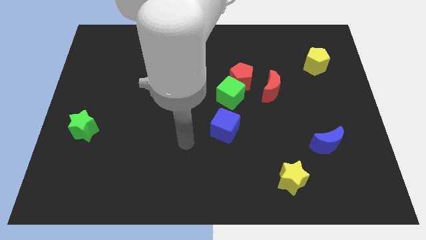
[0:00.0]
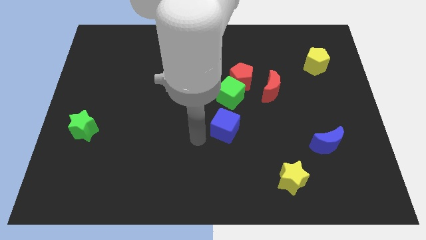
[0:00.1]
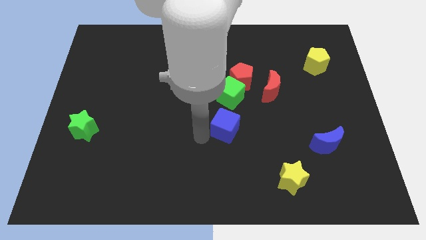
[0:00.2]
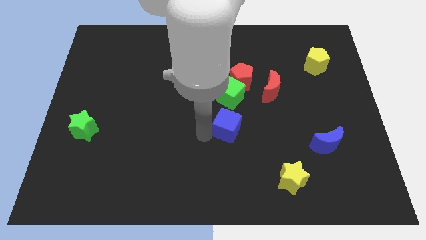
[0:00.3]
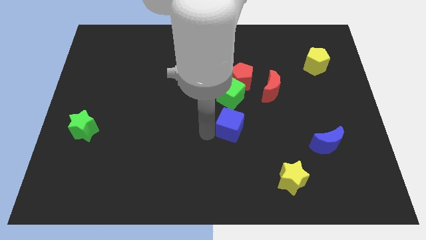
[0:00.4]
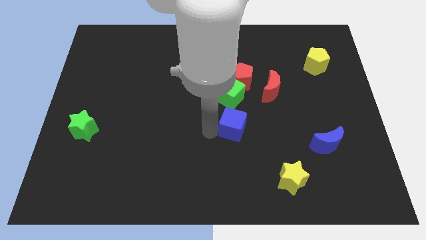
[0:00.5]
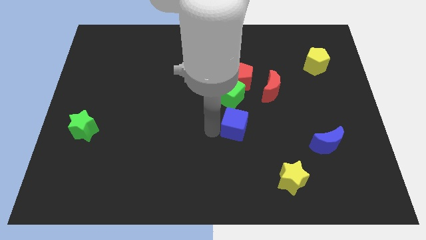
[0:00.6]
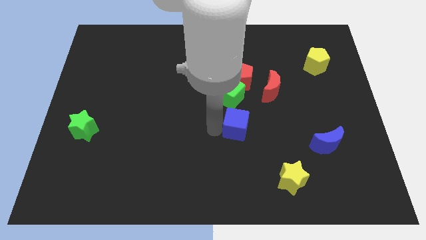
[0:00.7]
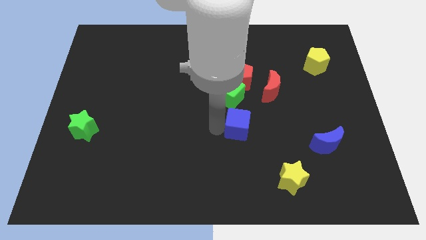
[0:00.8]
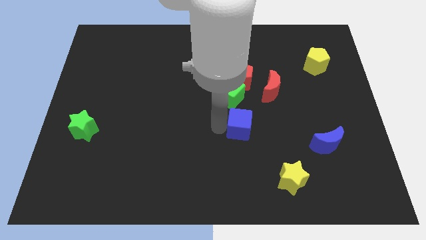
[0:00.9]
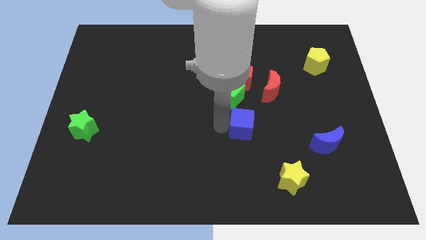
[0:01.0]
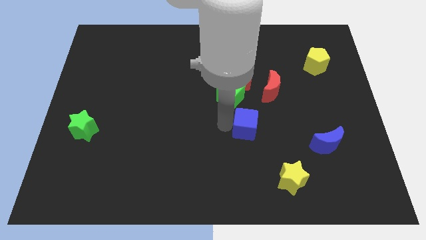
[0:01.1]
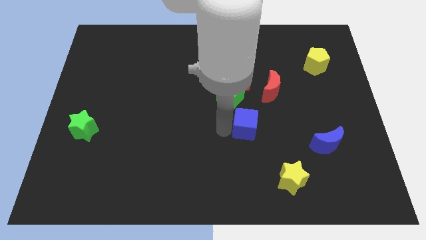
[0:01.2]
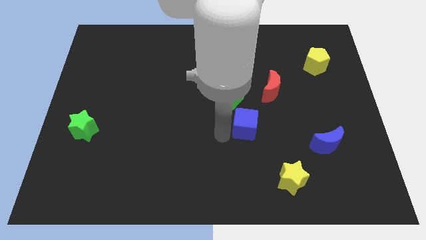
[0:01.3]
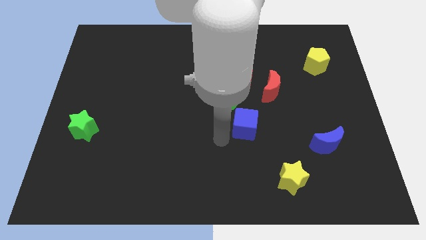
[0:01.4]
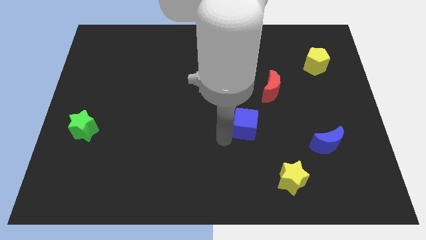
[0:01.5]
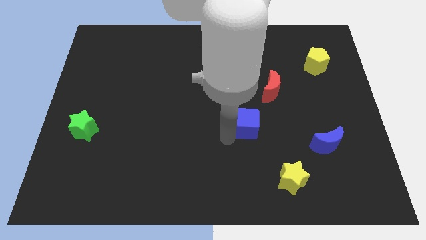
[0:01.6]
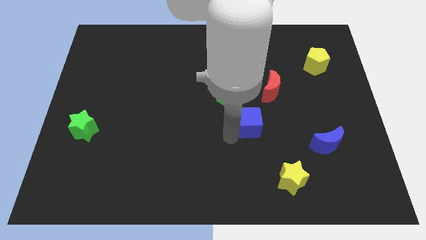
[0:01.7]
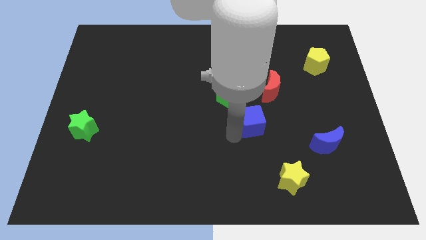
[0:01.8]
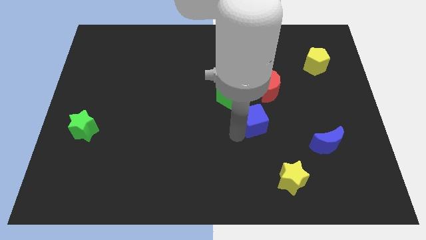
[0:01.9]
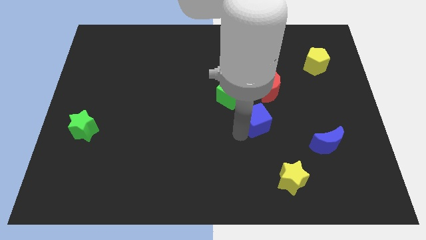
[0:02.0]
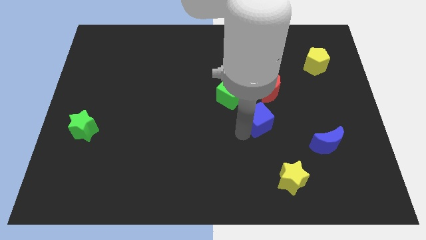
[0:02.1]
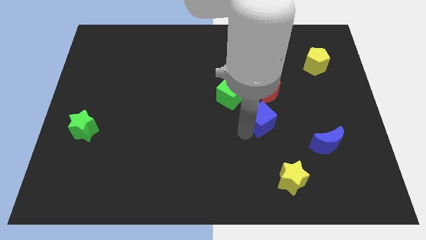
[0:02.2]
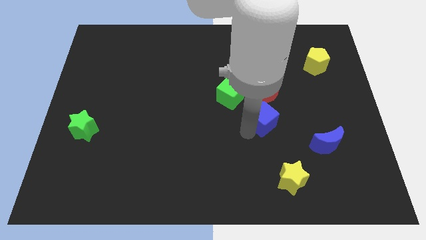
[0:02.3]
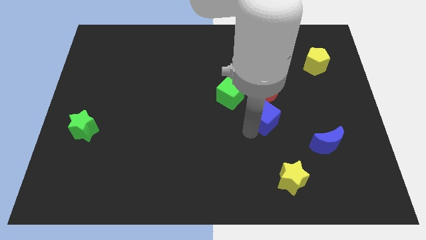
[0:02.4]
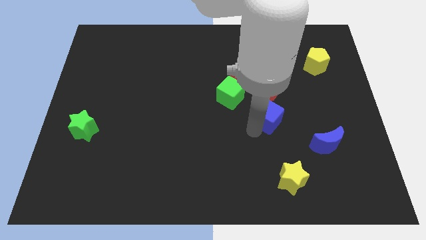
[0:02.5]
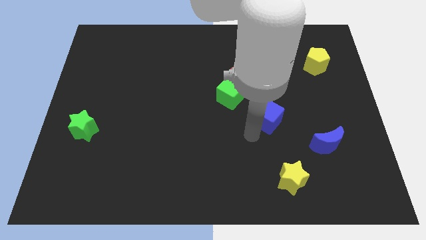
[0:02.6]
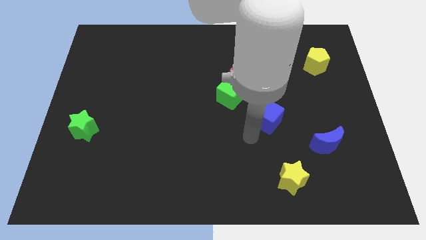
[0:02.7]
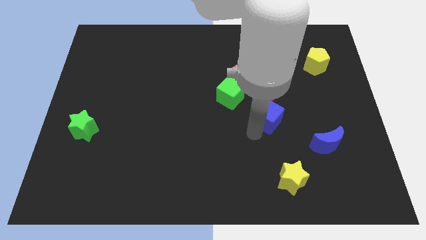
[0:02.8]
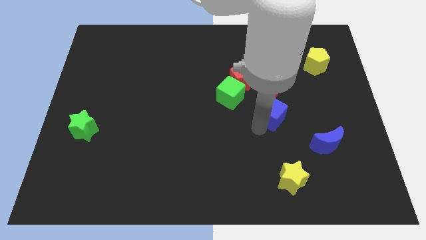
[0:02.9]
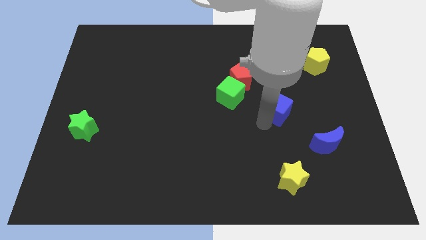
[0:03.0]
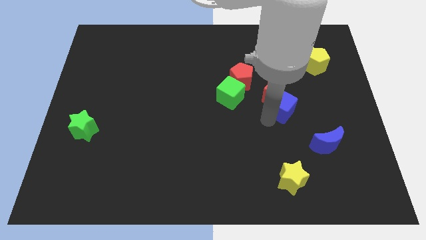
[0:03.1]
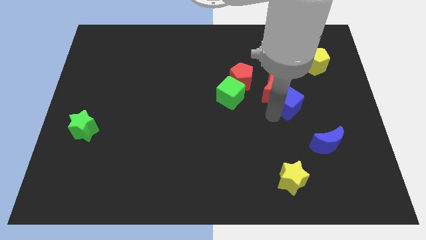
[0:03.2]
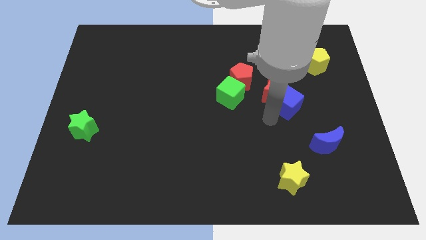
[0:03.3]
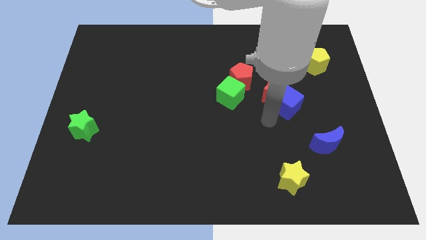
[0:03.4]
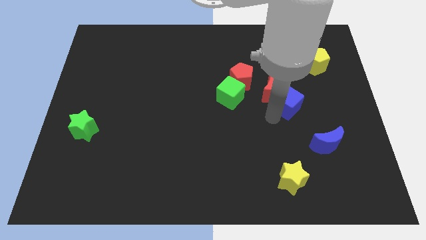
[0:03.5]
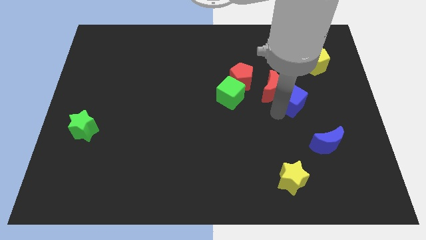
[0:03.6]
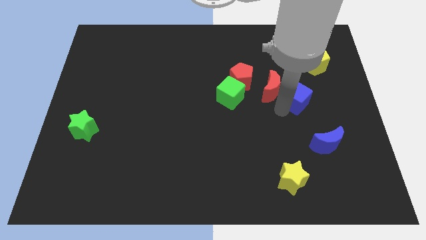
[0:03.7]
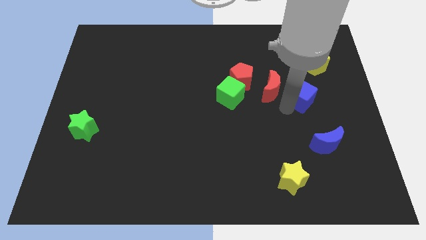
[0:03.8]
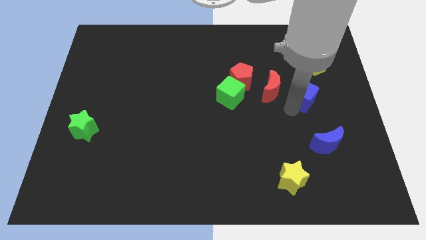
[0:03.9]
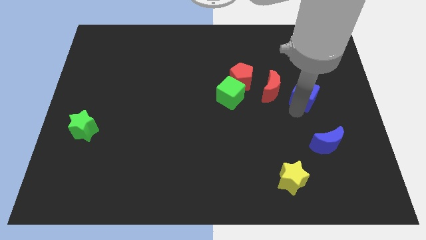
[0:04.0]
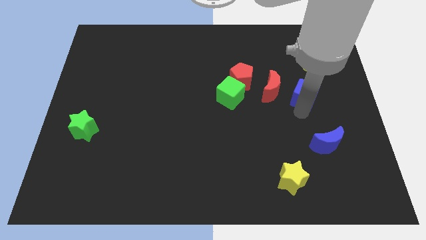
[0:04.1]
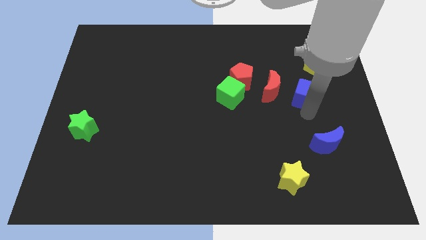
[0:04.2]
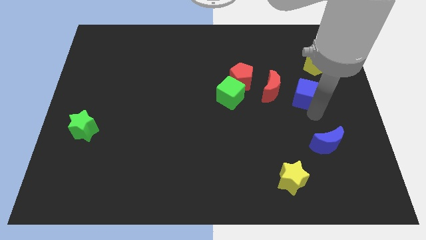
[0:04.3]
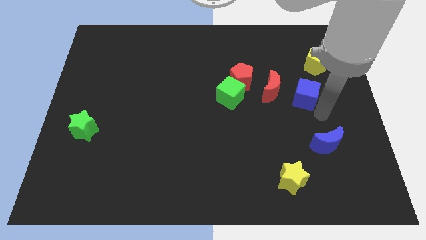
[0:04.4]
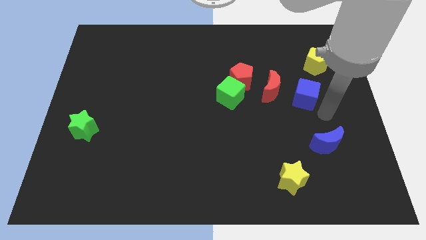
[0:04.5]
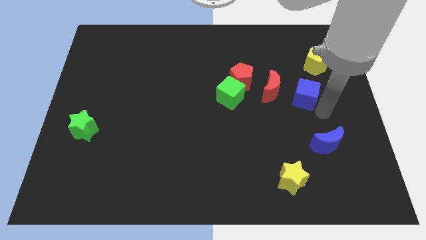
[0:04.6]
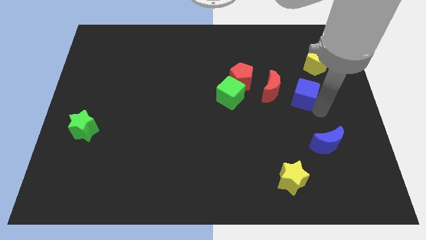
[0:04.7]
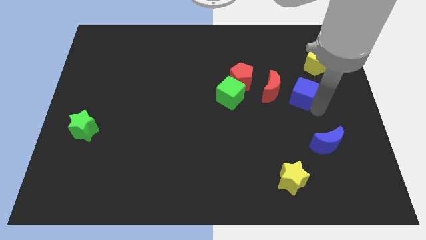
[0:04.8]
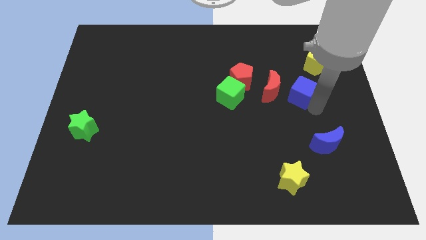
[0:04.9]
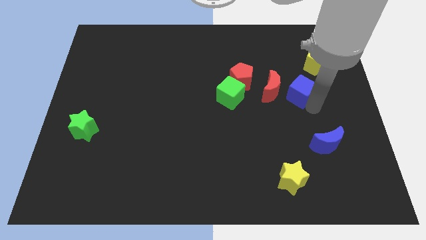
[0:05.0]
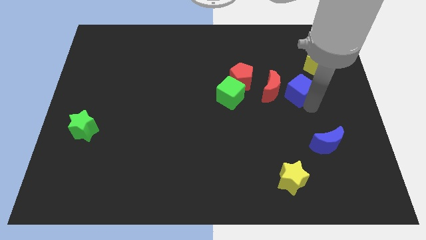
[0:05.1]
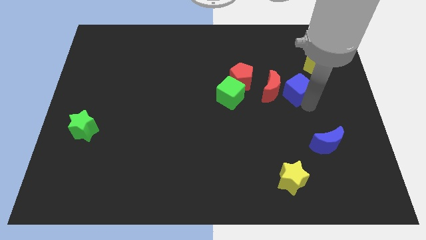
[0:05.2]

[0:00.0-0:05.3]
push the blue cube to the top right of the red moon

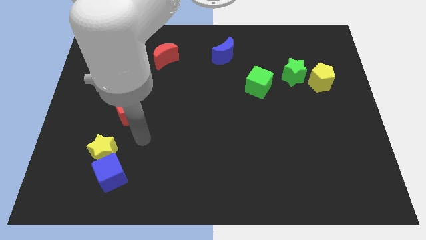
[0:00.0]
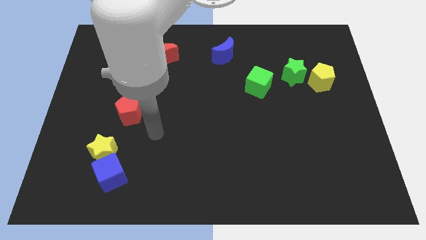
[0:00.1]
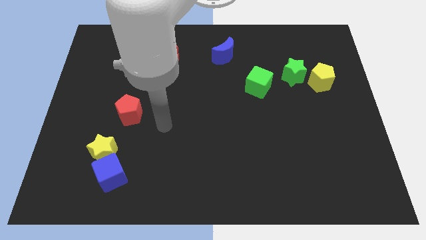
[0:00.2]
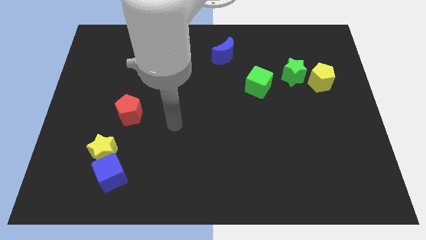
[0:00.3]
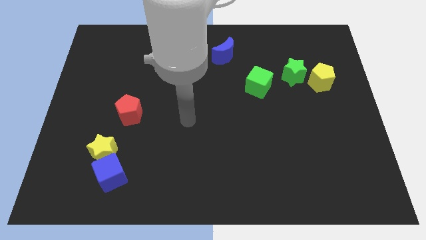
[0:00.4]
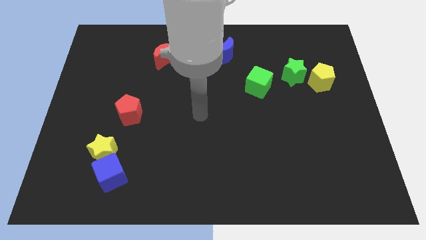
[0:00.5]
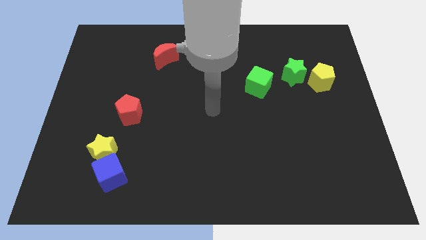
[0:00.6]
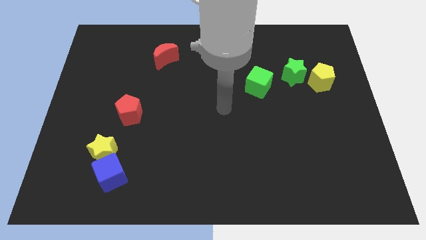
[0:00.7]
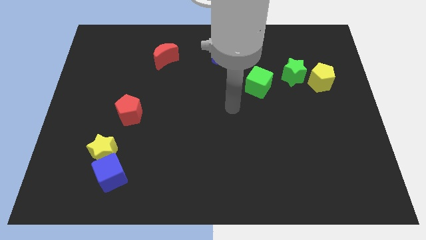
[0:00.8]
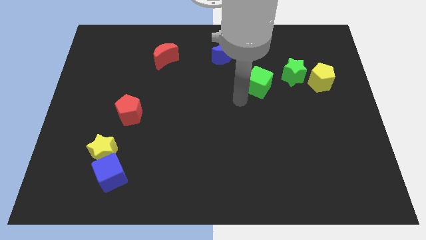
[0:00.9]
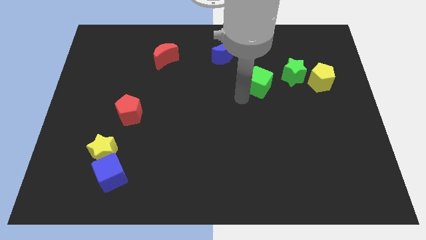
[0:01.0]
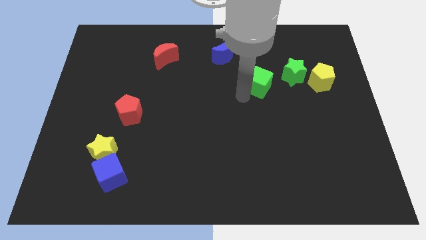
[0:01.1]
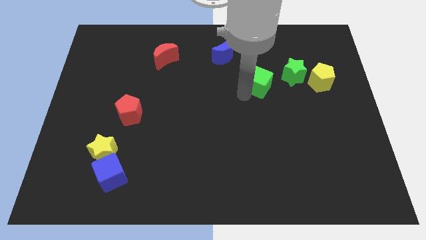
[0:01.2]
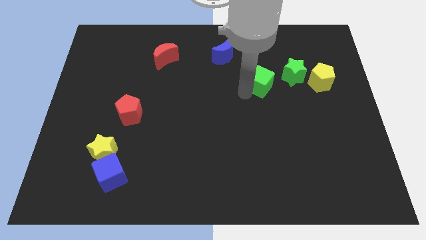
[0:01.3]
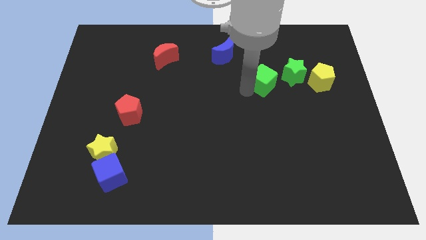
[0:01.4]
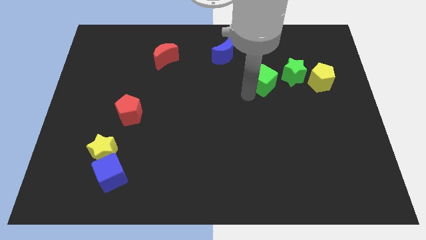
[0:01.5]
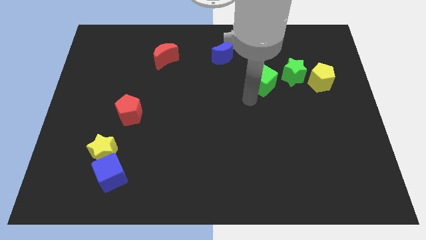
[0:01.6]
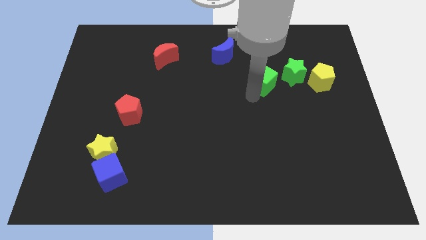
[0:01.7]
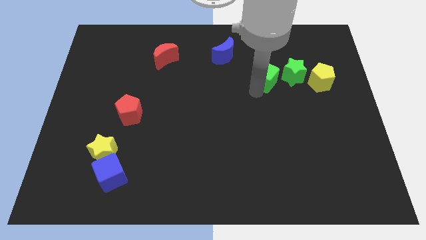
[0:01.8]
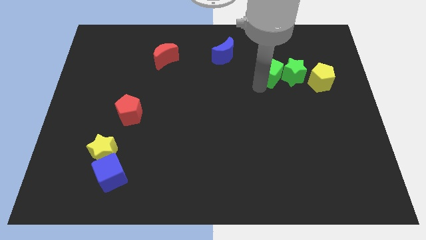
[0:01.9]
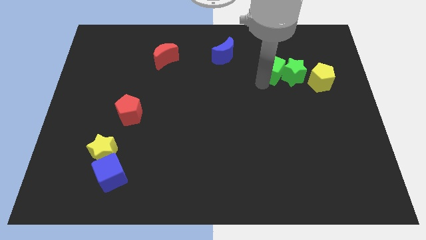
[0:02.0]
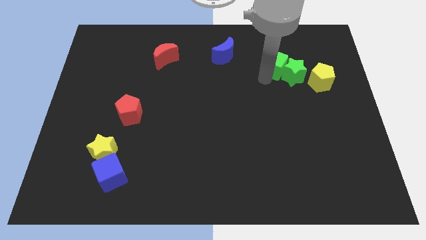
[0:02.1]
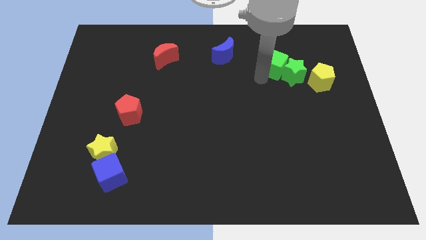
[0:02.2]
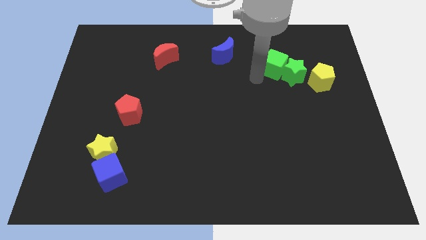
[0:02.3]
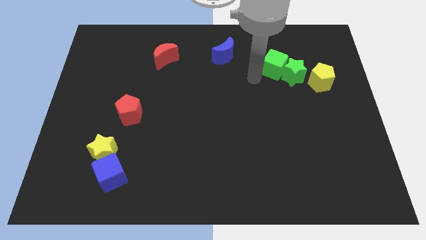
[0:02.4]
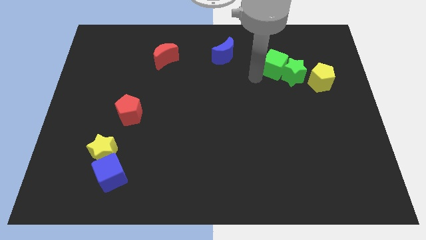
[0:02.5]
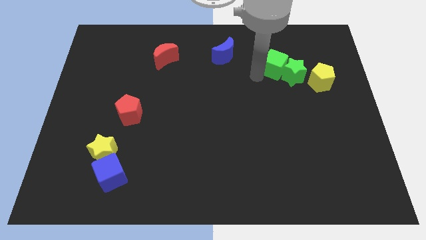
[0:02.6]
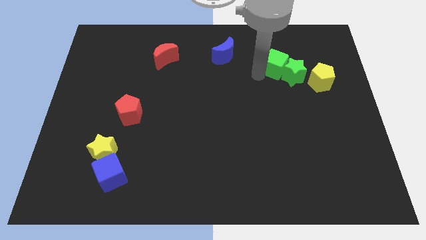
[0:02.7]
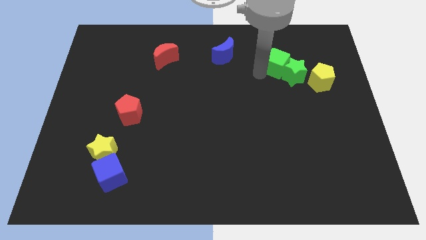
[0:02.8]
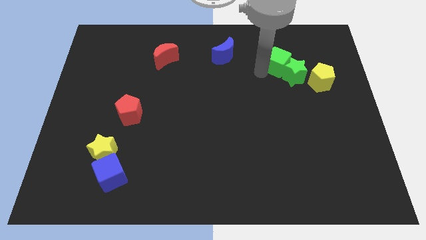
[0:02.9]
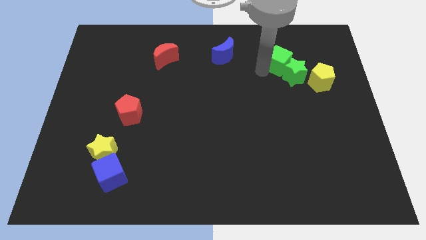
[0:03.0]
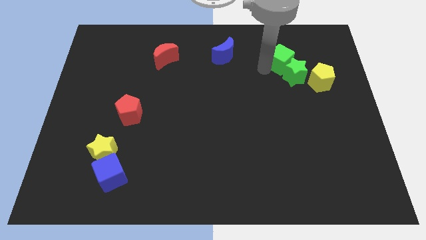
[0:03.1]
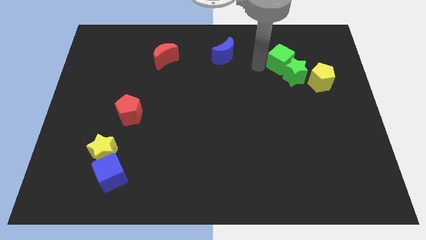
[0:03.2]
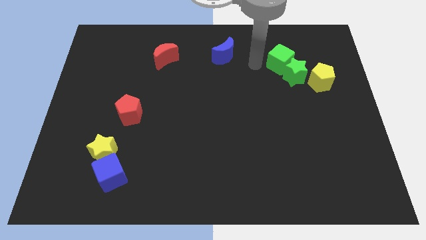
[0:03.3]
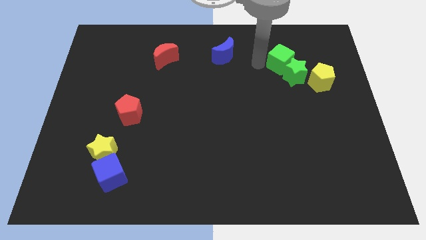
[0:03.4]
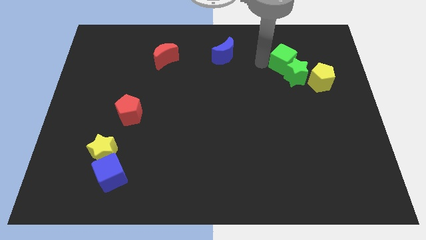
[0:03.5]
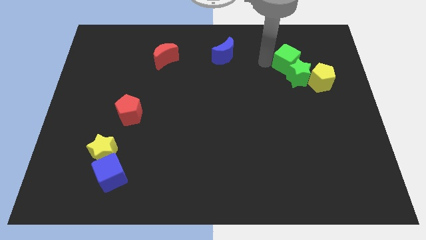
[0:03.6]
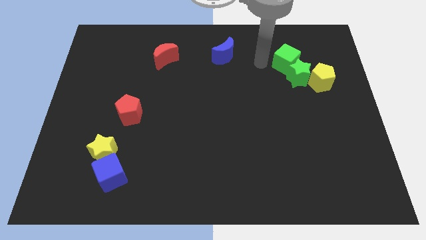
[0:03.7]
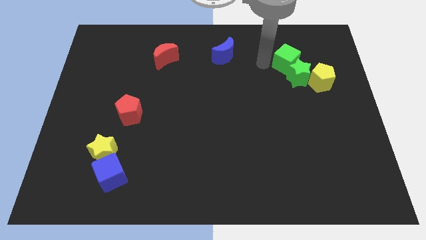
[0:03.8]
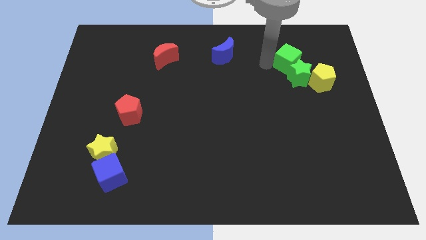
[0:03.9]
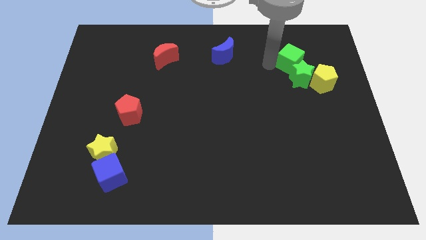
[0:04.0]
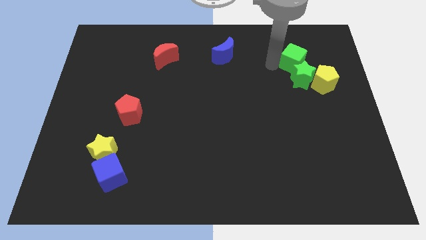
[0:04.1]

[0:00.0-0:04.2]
push the green cube to the top right side of the green star
